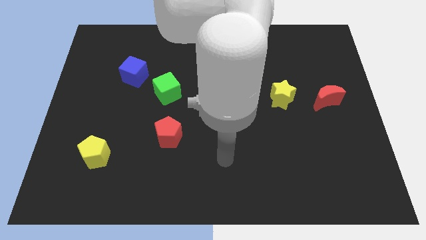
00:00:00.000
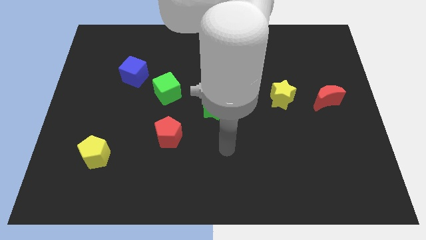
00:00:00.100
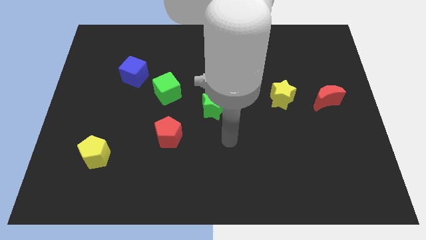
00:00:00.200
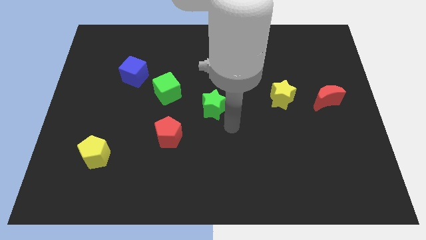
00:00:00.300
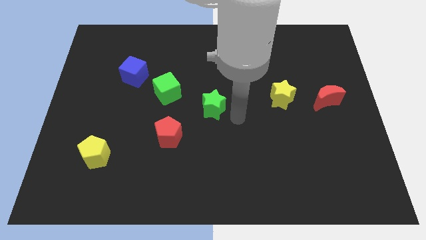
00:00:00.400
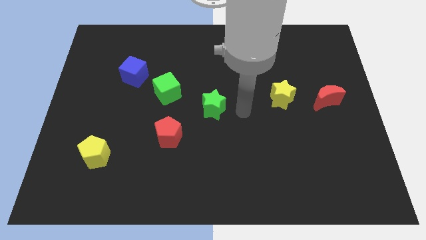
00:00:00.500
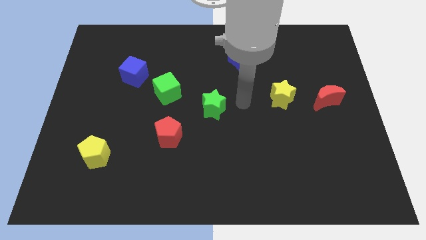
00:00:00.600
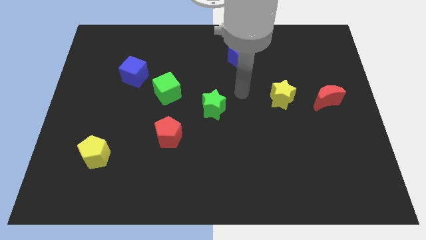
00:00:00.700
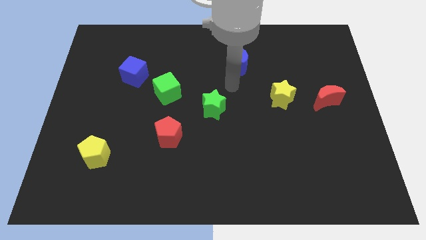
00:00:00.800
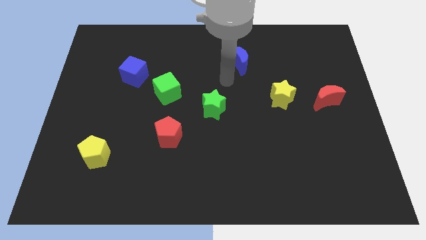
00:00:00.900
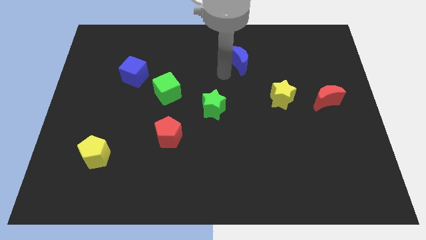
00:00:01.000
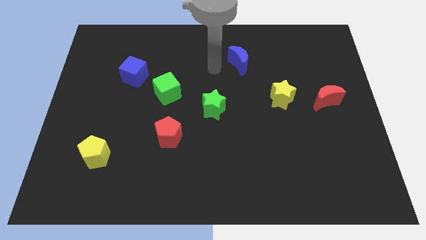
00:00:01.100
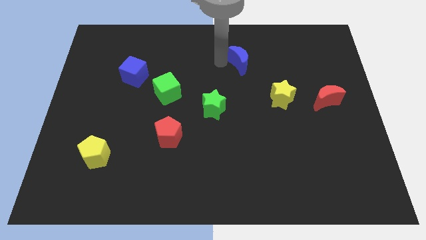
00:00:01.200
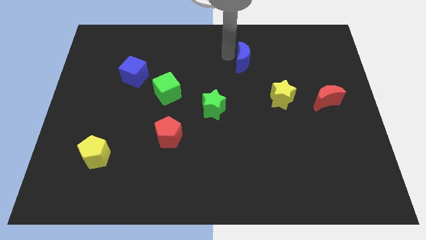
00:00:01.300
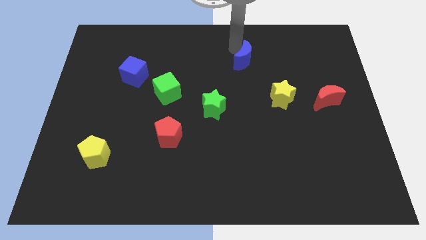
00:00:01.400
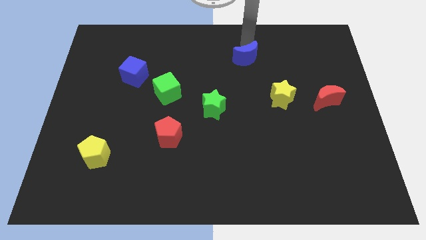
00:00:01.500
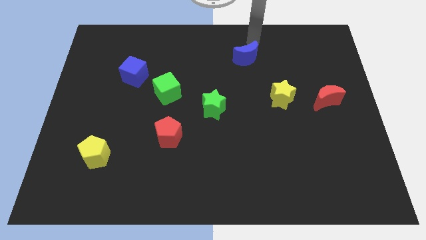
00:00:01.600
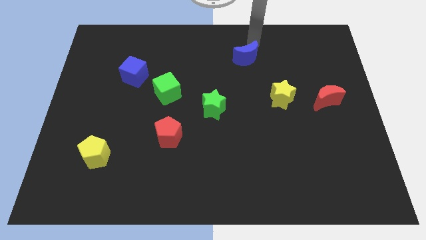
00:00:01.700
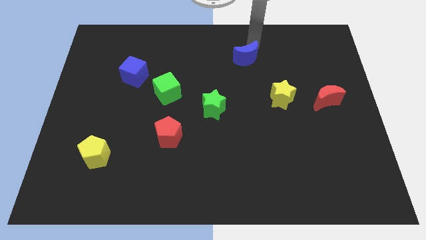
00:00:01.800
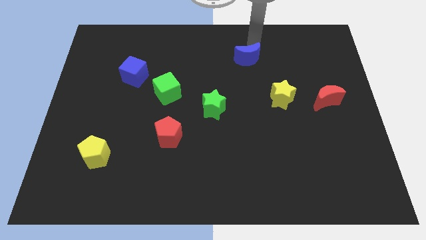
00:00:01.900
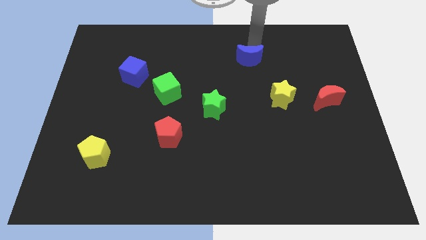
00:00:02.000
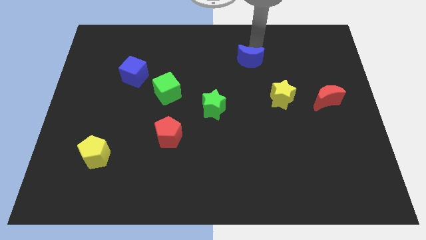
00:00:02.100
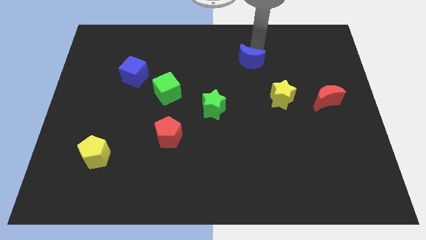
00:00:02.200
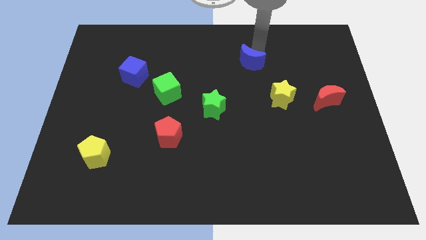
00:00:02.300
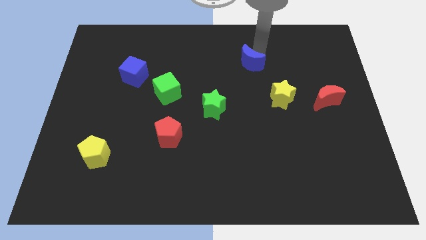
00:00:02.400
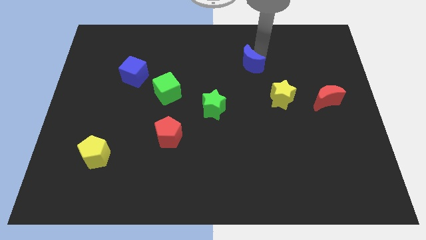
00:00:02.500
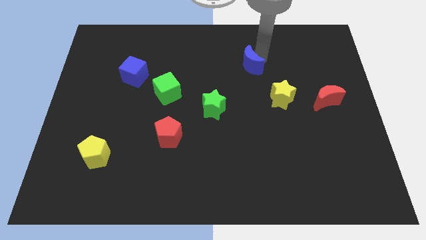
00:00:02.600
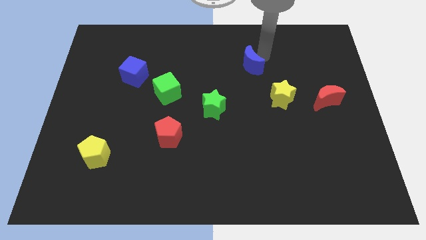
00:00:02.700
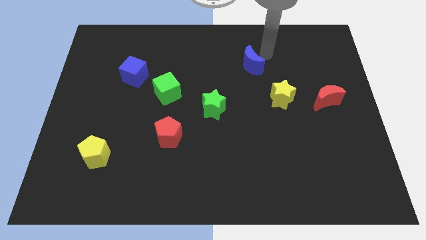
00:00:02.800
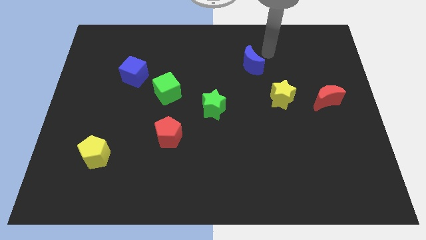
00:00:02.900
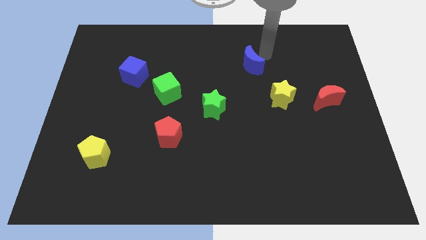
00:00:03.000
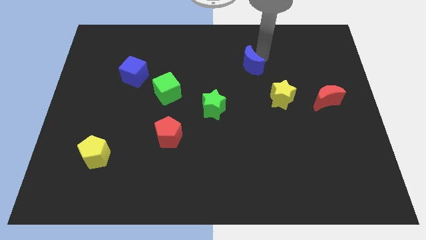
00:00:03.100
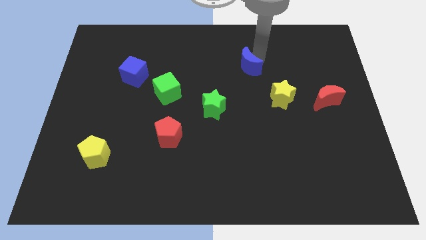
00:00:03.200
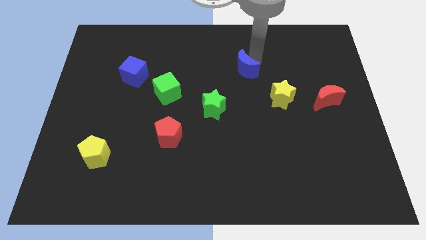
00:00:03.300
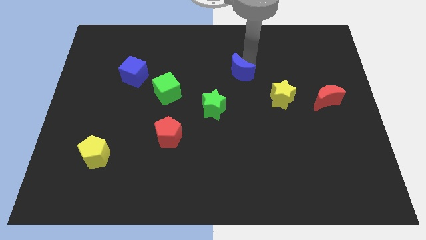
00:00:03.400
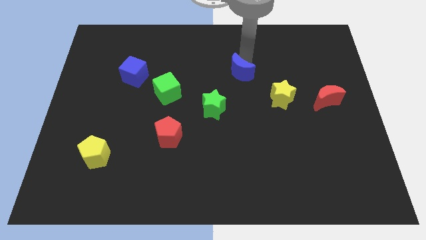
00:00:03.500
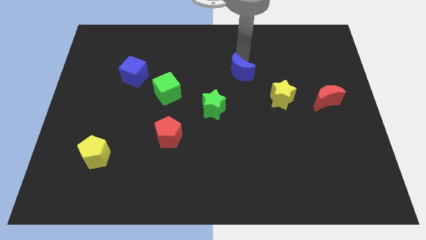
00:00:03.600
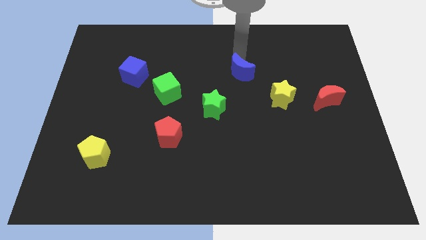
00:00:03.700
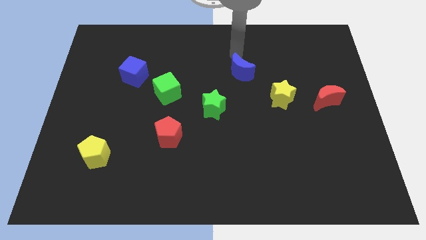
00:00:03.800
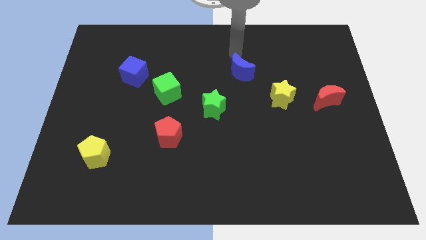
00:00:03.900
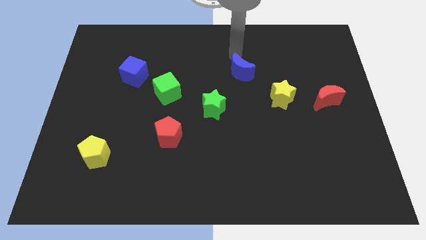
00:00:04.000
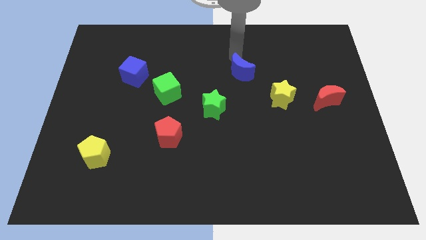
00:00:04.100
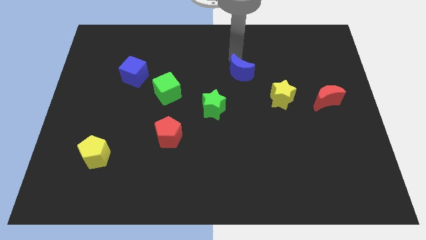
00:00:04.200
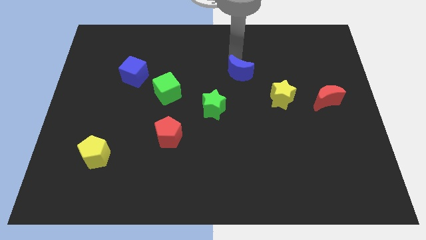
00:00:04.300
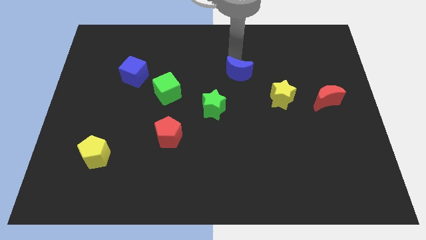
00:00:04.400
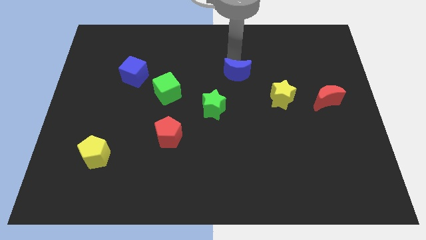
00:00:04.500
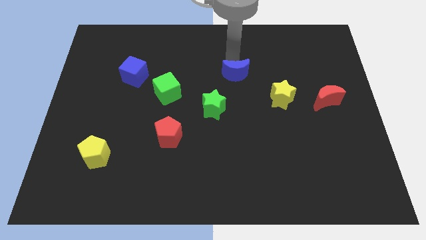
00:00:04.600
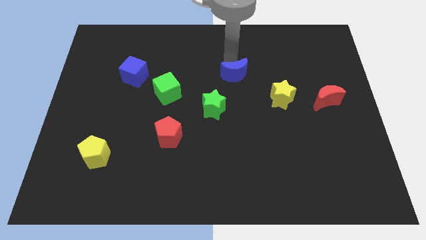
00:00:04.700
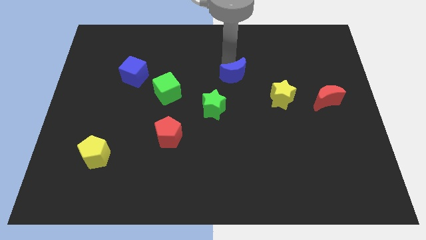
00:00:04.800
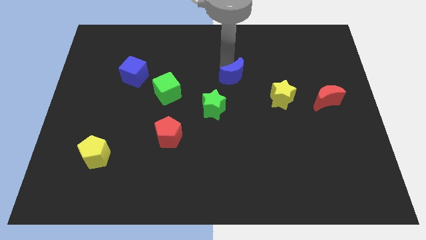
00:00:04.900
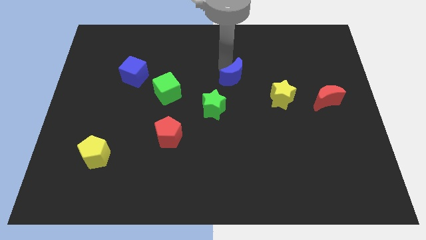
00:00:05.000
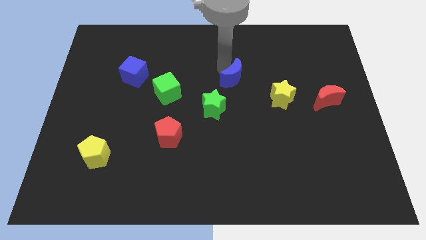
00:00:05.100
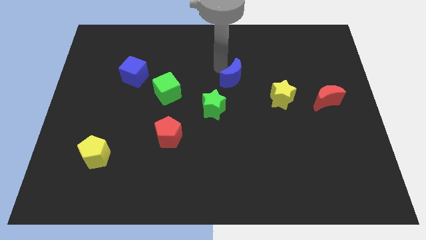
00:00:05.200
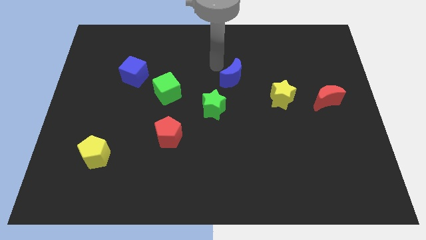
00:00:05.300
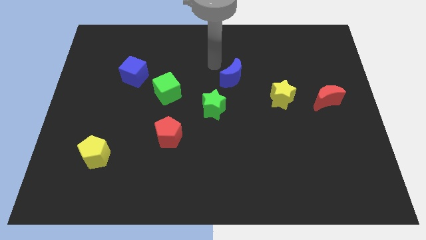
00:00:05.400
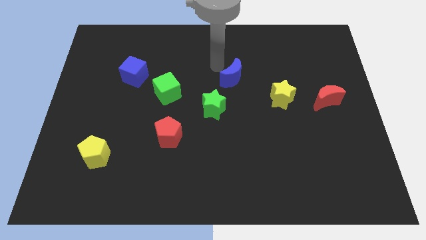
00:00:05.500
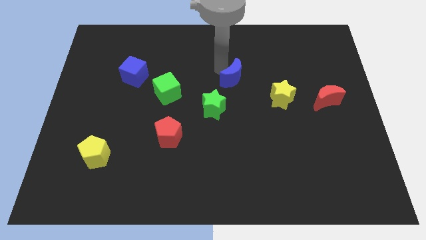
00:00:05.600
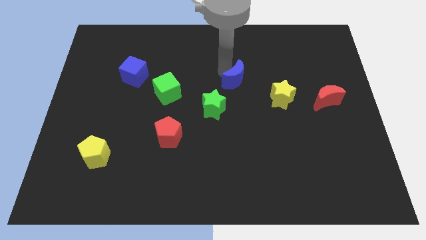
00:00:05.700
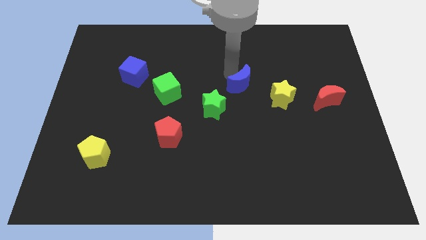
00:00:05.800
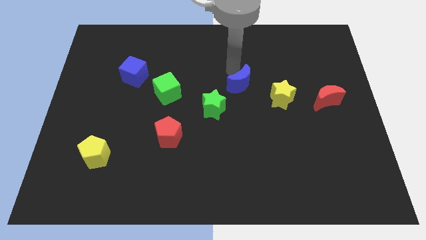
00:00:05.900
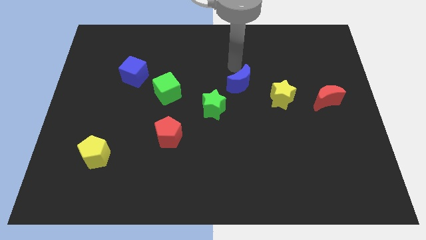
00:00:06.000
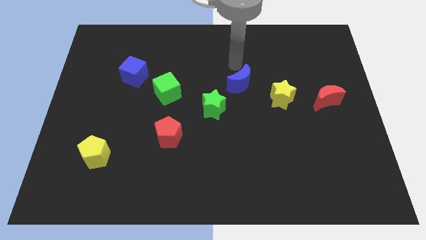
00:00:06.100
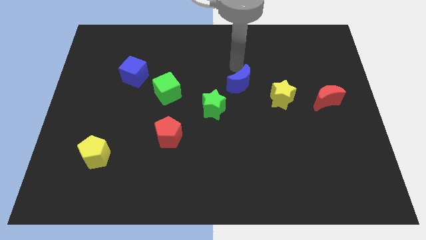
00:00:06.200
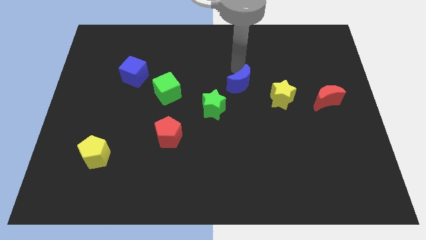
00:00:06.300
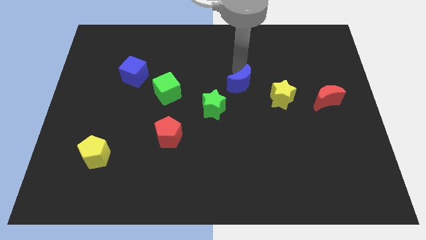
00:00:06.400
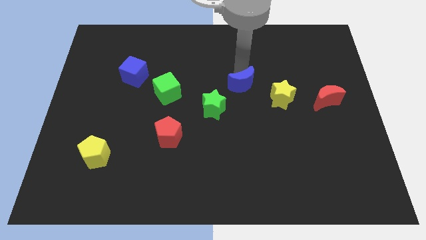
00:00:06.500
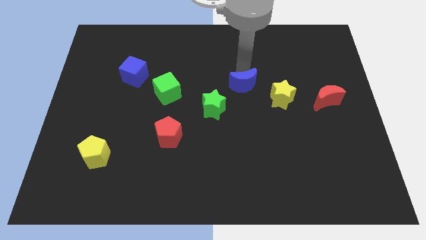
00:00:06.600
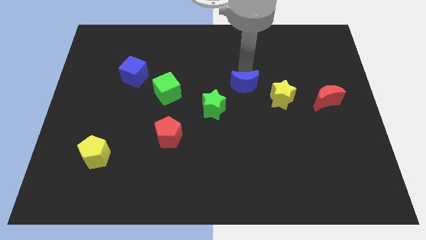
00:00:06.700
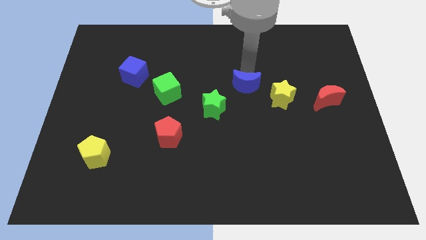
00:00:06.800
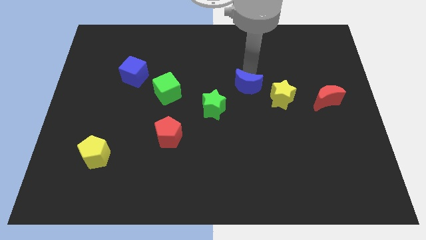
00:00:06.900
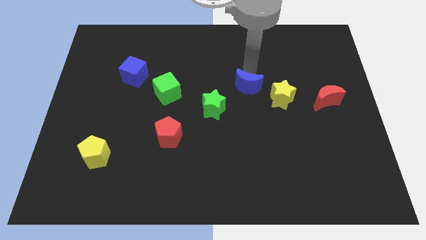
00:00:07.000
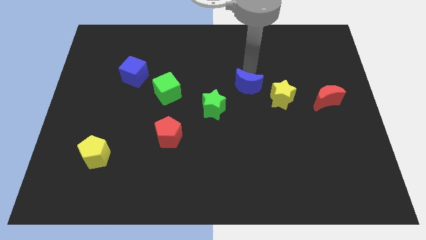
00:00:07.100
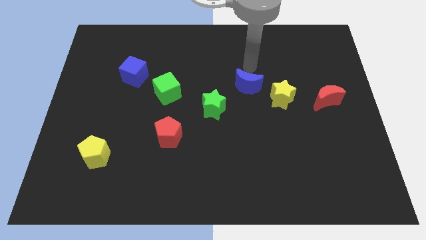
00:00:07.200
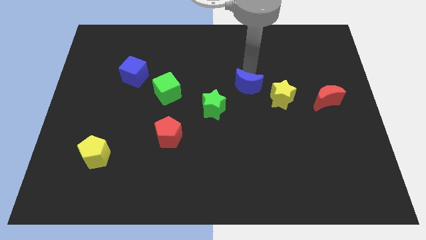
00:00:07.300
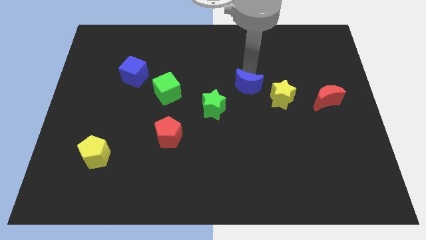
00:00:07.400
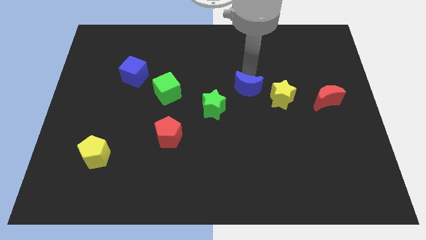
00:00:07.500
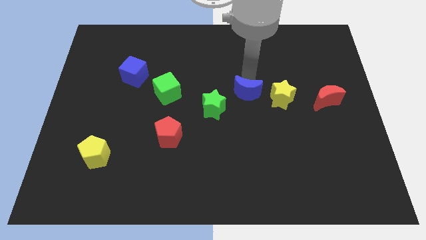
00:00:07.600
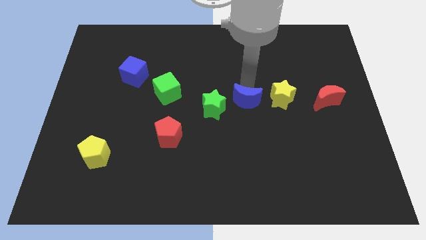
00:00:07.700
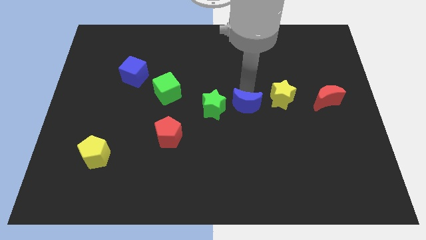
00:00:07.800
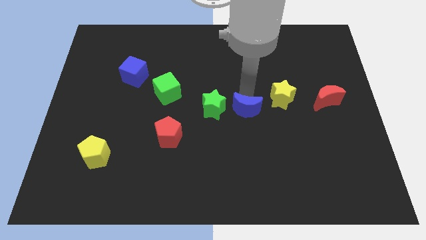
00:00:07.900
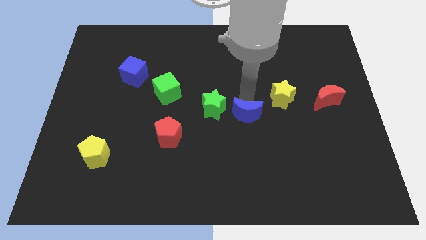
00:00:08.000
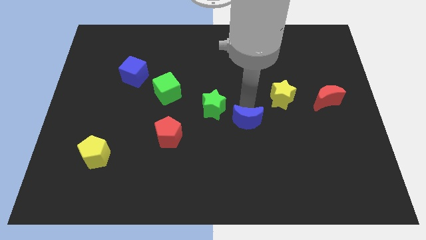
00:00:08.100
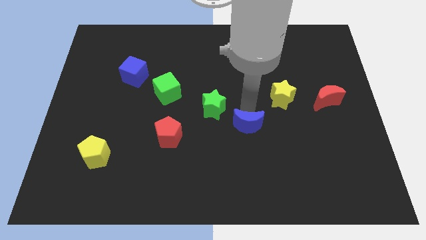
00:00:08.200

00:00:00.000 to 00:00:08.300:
move the blue moon down

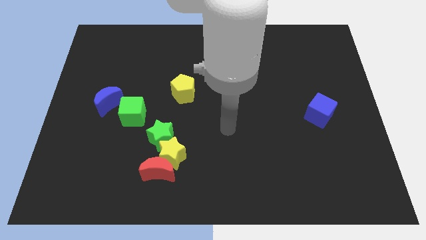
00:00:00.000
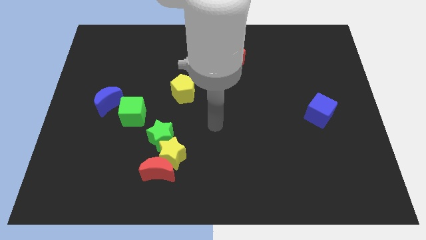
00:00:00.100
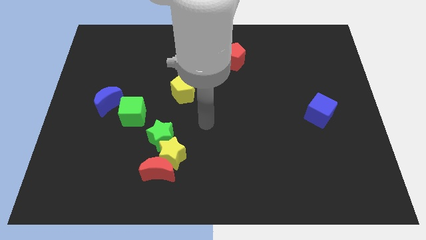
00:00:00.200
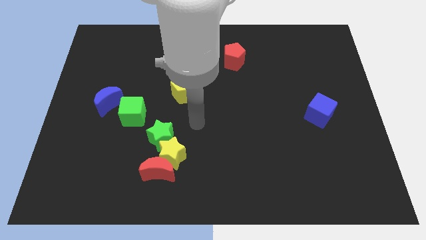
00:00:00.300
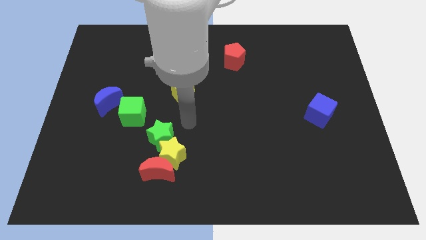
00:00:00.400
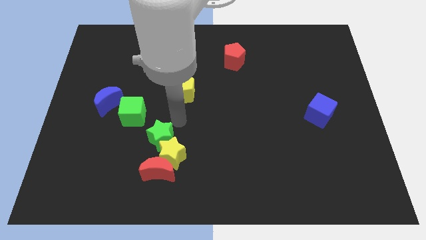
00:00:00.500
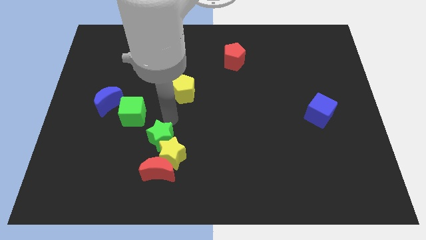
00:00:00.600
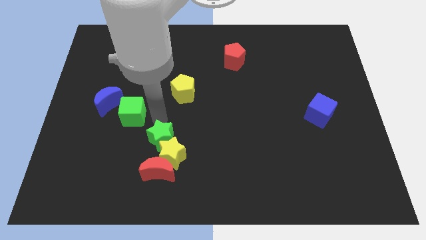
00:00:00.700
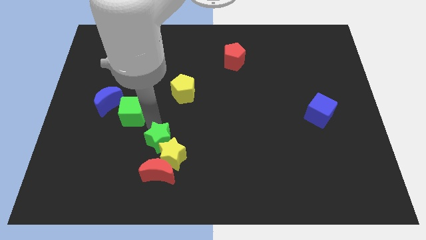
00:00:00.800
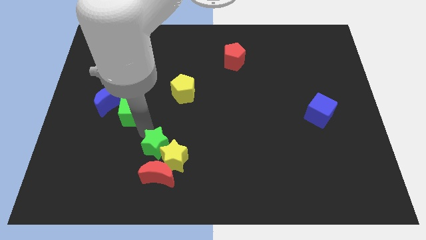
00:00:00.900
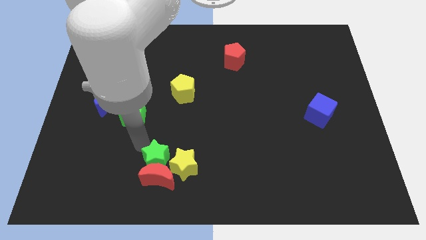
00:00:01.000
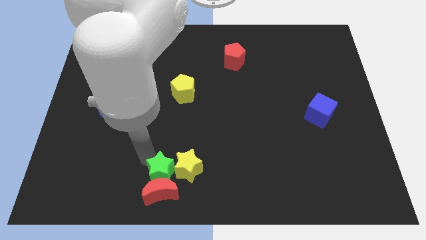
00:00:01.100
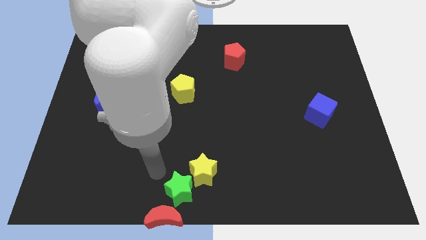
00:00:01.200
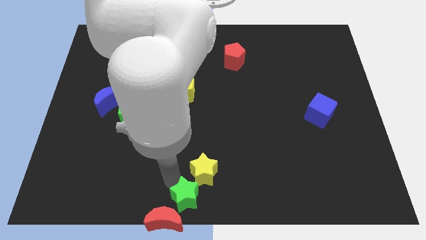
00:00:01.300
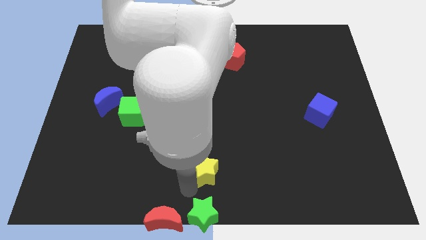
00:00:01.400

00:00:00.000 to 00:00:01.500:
move the yellow star to the right slightly
